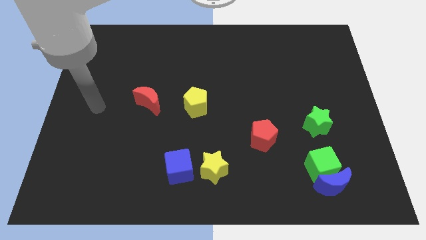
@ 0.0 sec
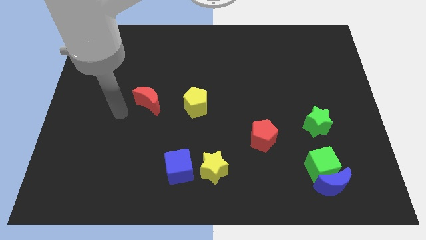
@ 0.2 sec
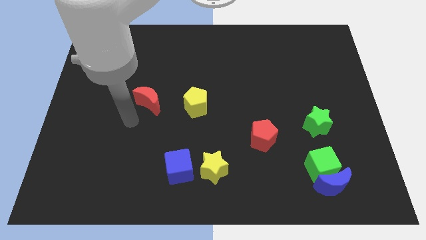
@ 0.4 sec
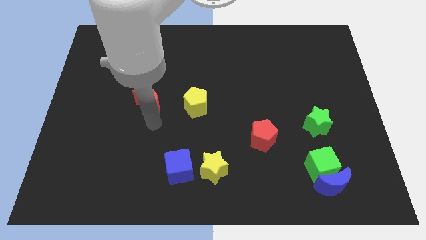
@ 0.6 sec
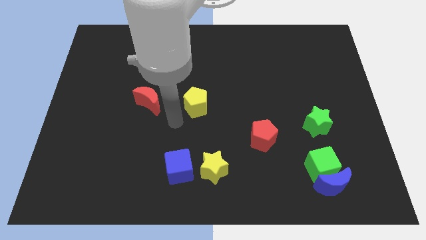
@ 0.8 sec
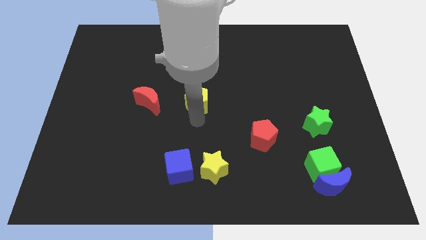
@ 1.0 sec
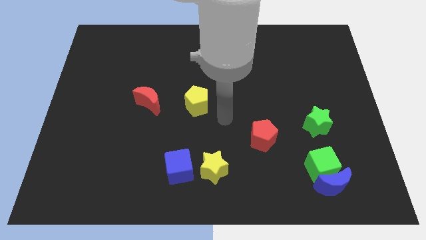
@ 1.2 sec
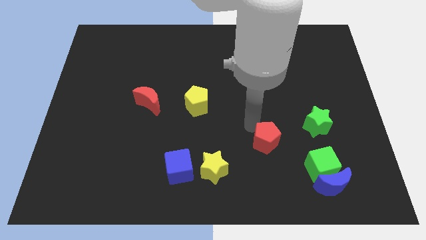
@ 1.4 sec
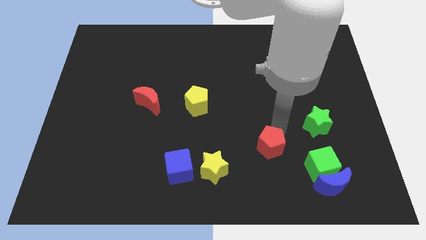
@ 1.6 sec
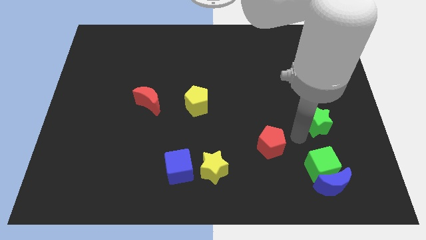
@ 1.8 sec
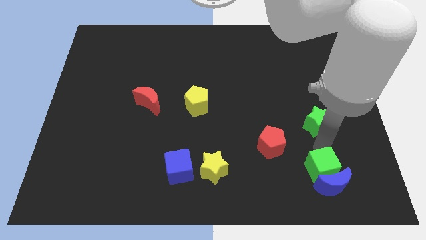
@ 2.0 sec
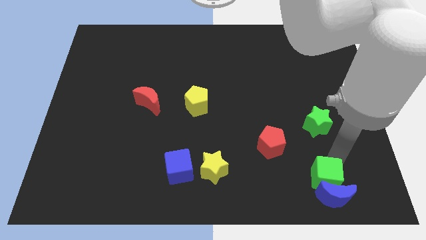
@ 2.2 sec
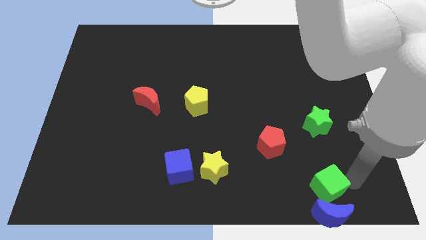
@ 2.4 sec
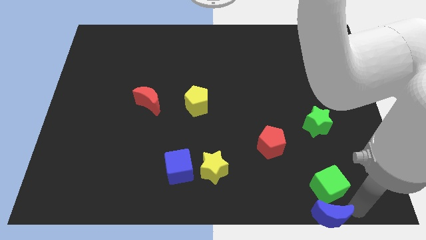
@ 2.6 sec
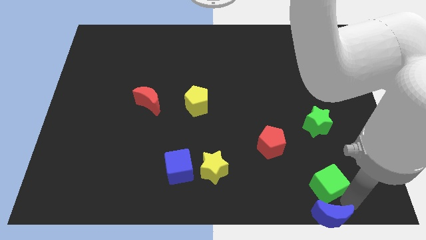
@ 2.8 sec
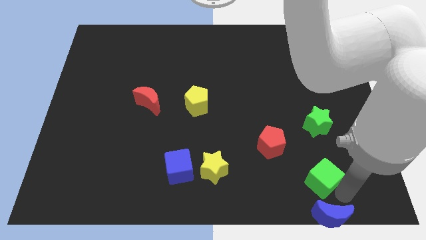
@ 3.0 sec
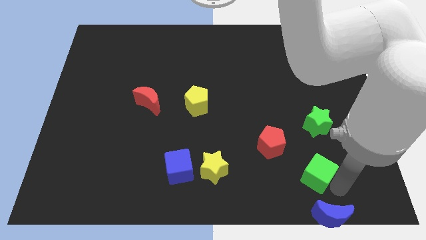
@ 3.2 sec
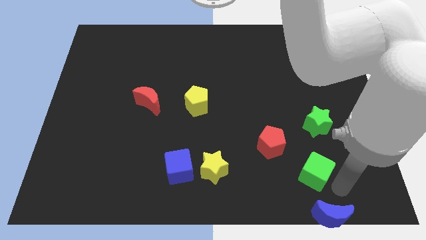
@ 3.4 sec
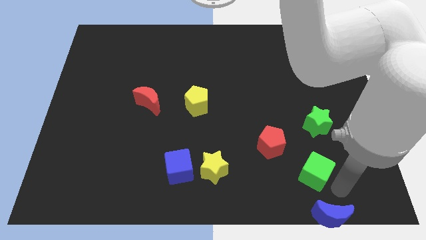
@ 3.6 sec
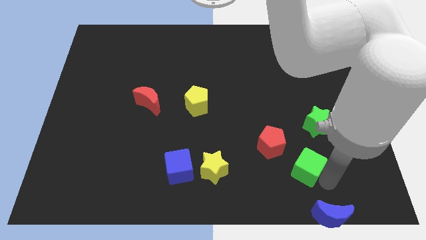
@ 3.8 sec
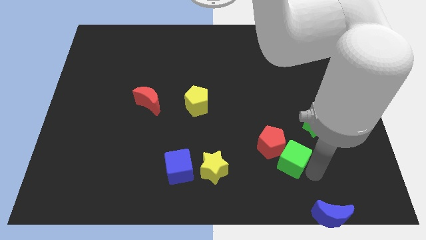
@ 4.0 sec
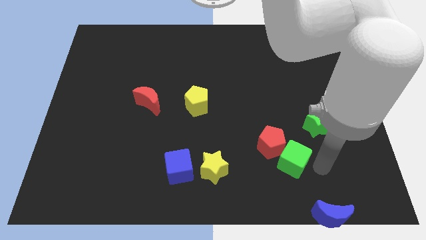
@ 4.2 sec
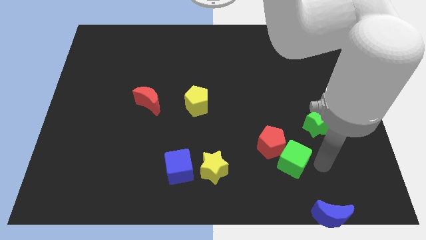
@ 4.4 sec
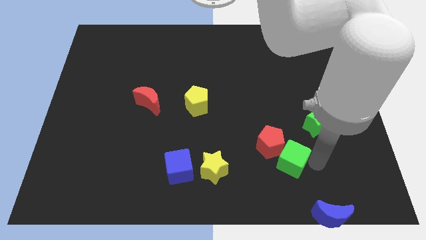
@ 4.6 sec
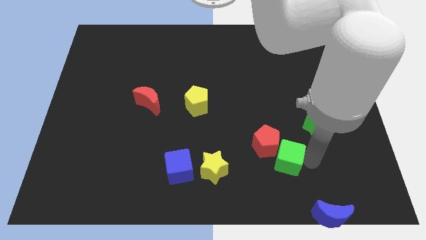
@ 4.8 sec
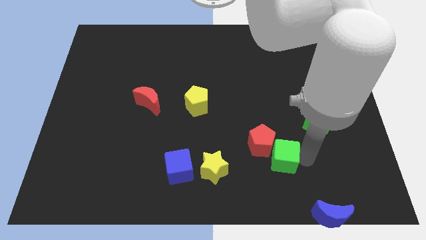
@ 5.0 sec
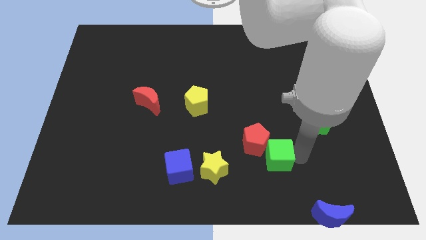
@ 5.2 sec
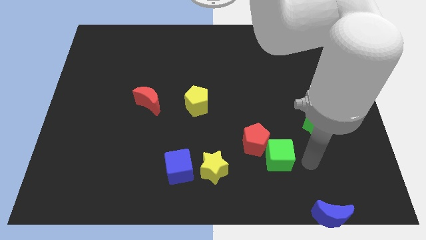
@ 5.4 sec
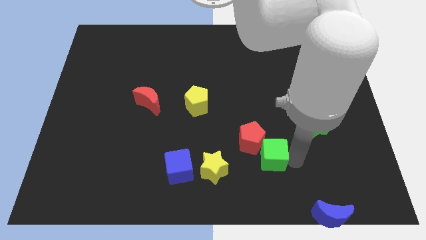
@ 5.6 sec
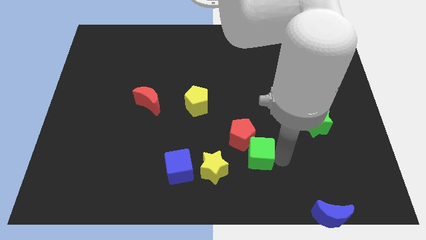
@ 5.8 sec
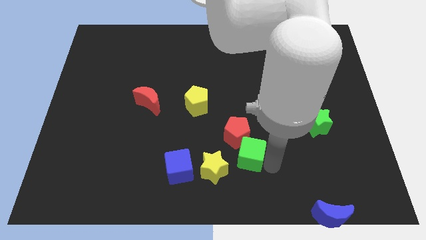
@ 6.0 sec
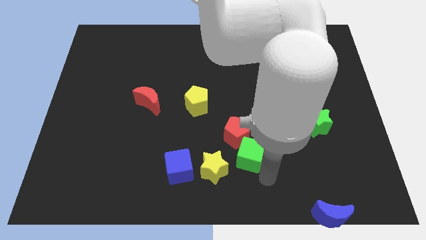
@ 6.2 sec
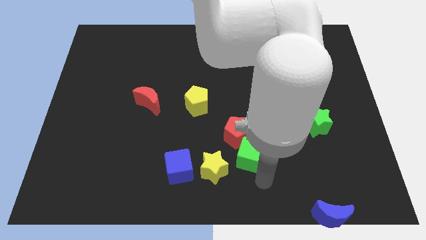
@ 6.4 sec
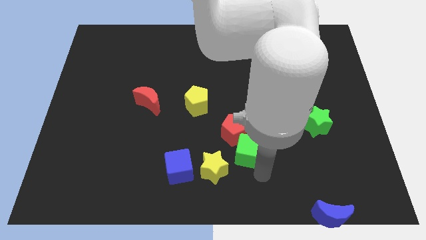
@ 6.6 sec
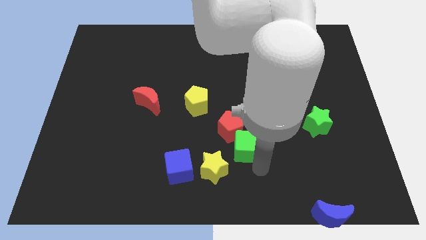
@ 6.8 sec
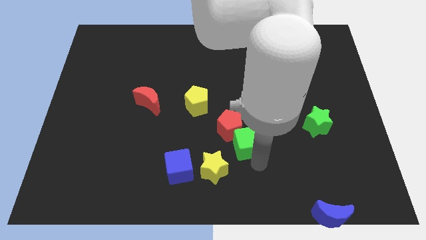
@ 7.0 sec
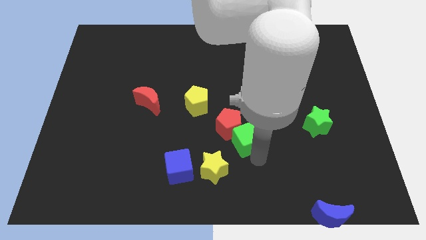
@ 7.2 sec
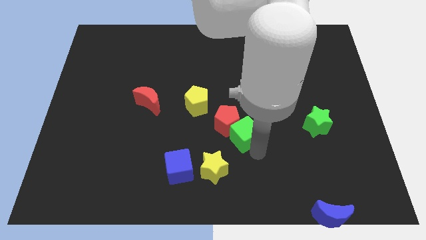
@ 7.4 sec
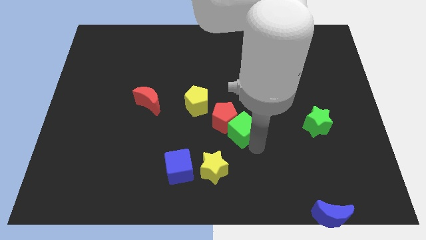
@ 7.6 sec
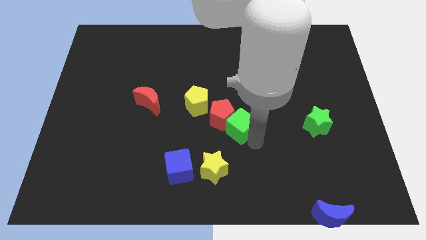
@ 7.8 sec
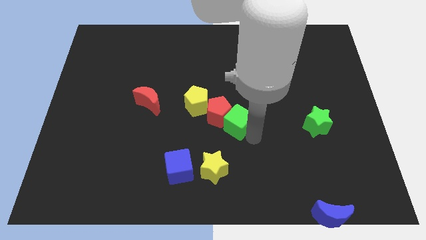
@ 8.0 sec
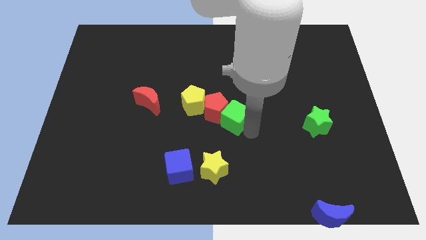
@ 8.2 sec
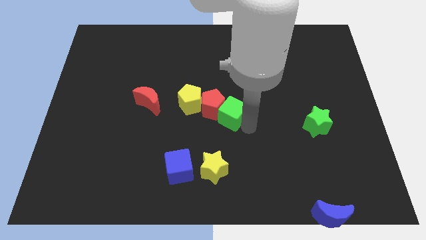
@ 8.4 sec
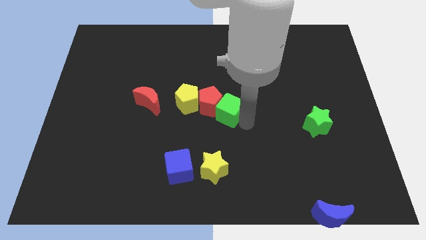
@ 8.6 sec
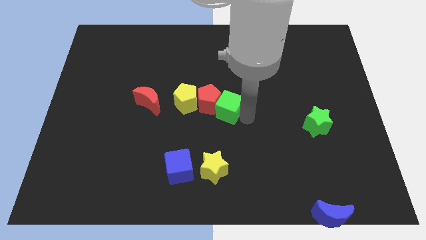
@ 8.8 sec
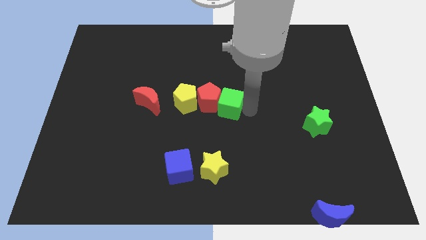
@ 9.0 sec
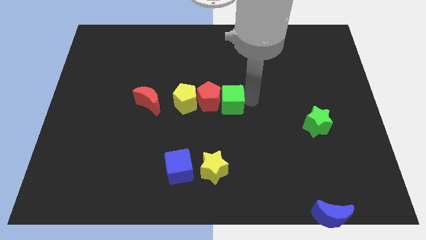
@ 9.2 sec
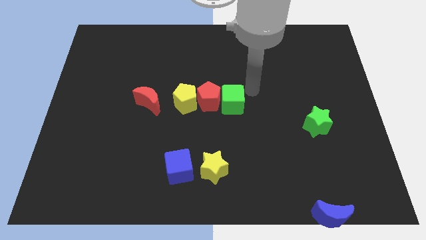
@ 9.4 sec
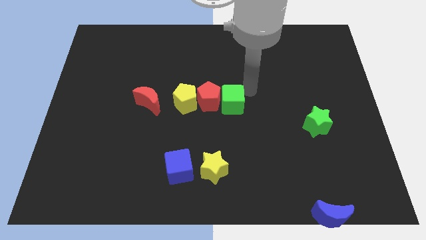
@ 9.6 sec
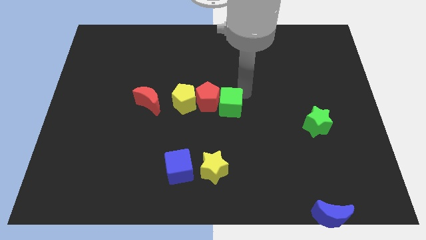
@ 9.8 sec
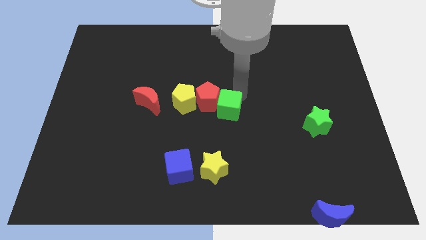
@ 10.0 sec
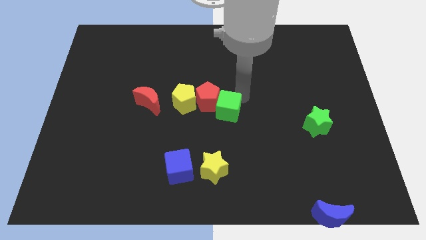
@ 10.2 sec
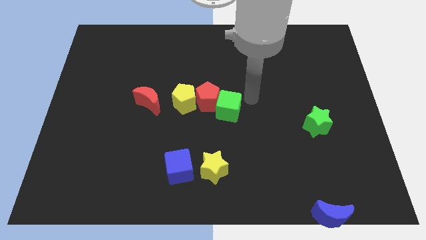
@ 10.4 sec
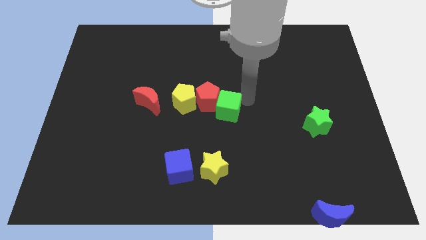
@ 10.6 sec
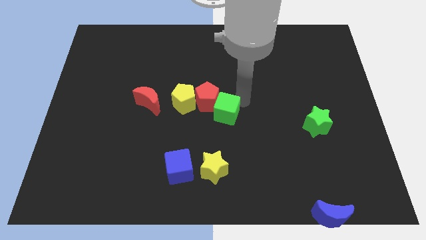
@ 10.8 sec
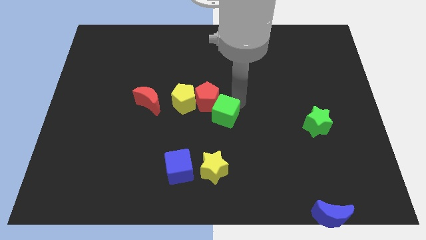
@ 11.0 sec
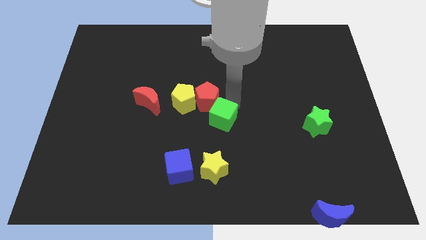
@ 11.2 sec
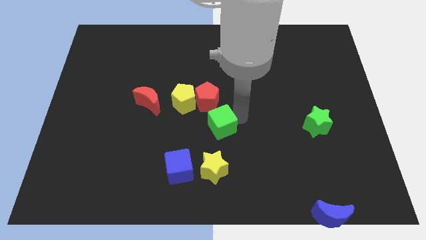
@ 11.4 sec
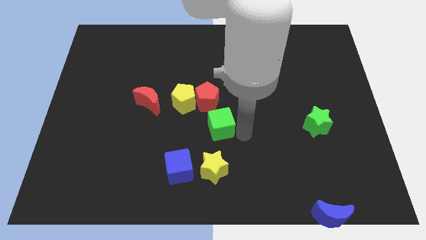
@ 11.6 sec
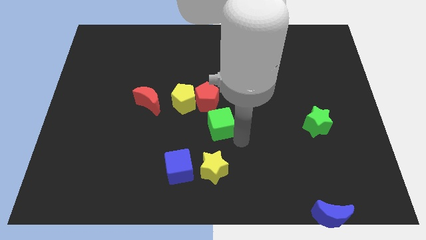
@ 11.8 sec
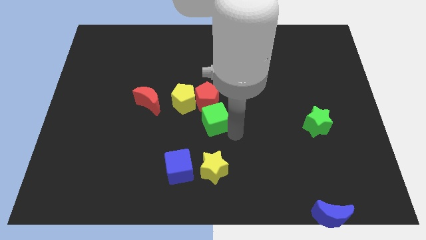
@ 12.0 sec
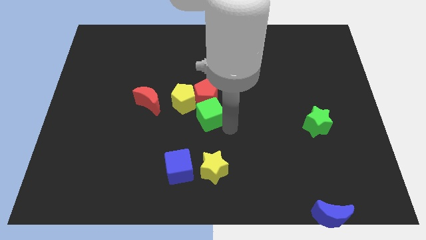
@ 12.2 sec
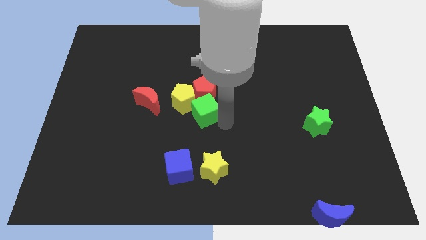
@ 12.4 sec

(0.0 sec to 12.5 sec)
slide the green cube next to the yellow pentagon

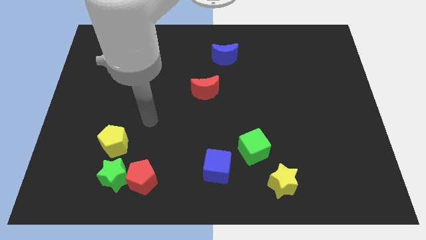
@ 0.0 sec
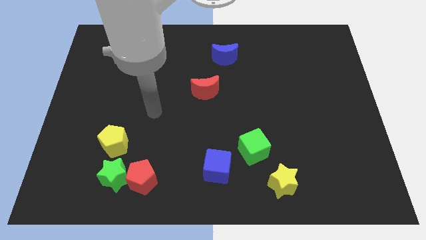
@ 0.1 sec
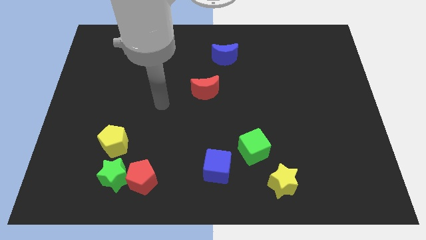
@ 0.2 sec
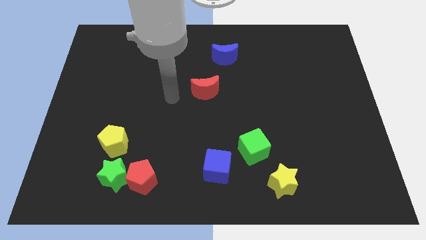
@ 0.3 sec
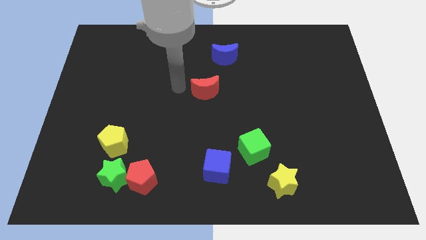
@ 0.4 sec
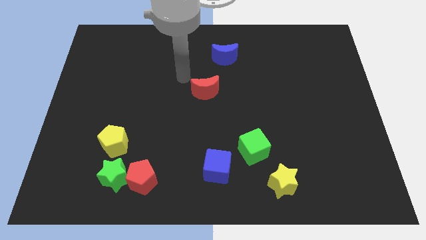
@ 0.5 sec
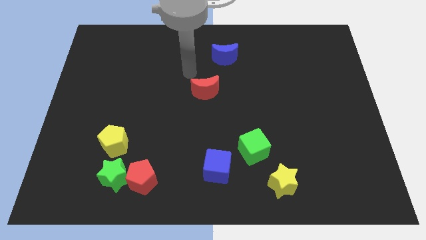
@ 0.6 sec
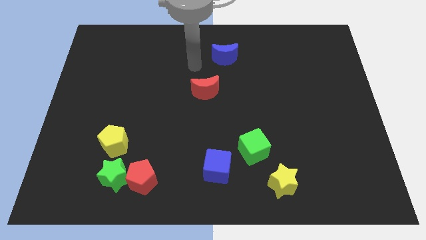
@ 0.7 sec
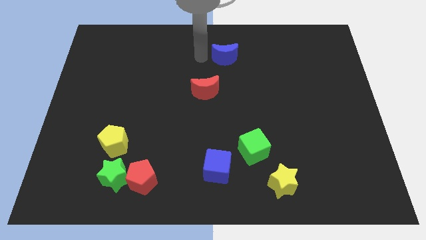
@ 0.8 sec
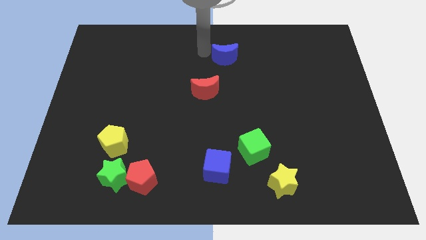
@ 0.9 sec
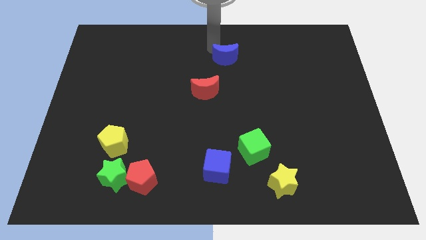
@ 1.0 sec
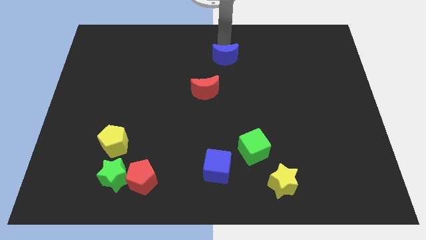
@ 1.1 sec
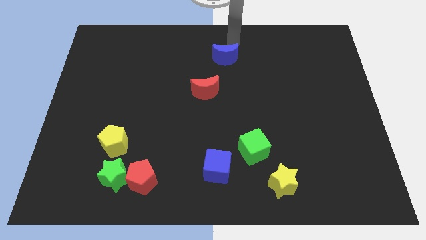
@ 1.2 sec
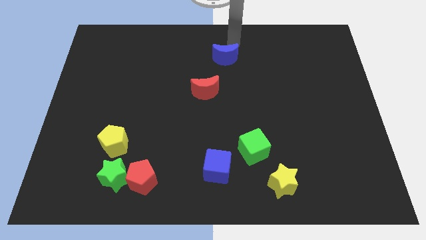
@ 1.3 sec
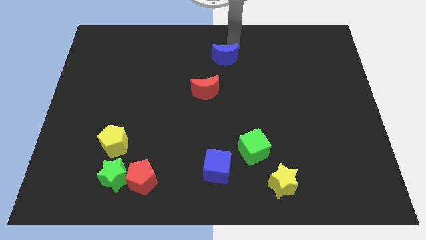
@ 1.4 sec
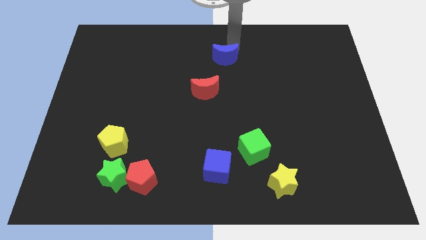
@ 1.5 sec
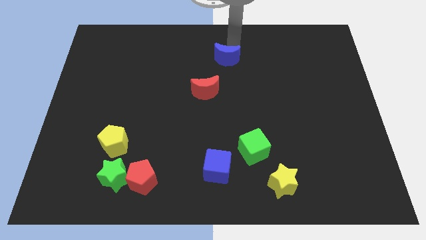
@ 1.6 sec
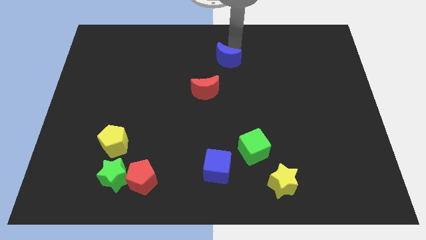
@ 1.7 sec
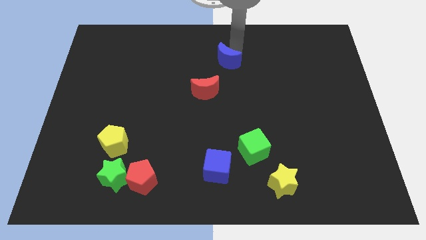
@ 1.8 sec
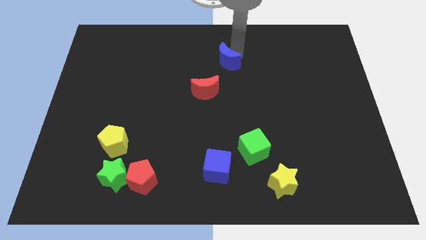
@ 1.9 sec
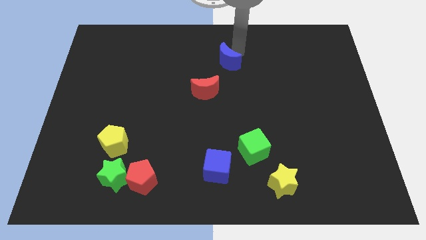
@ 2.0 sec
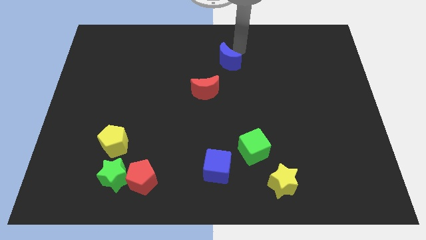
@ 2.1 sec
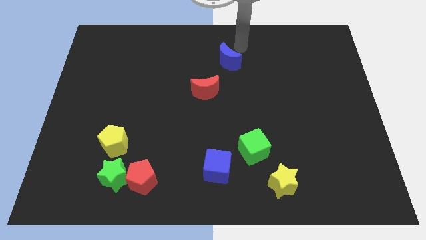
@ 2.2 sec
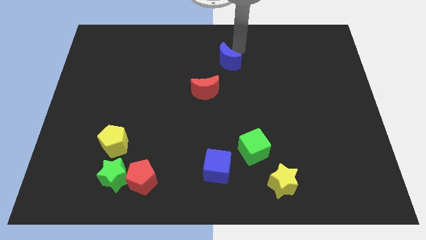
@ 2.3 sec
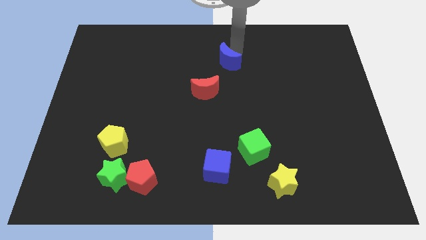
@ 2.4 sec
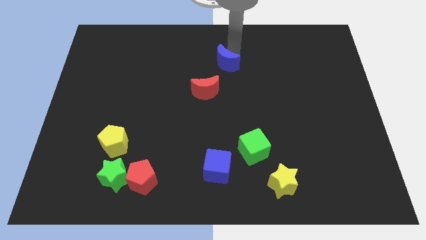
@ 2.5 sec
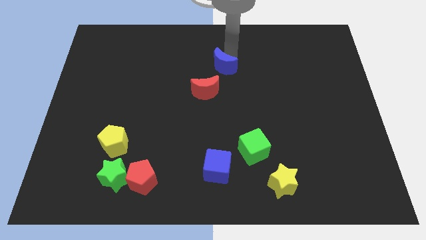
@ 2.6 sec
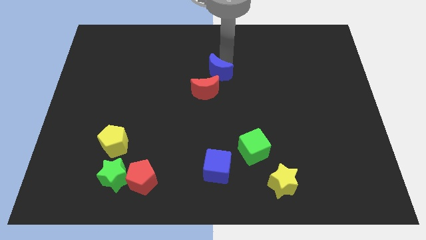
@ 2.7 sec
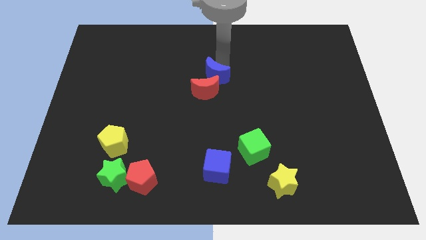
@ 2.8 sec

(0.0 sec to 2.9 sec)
slide the blue moon close to the red moon
